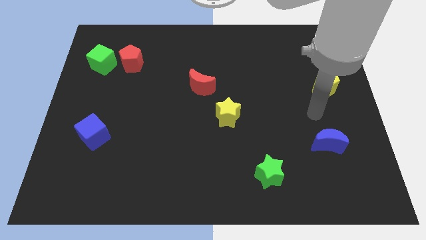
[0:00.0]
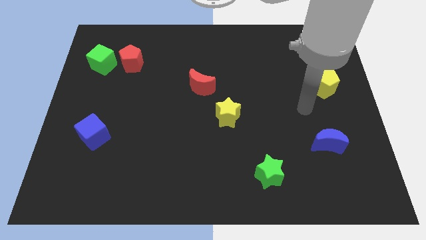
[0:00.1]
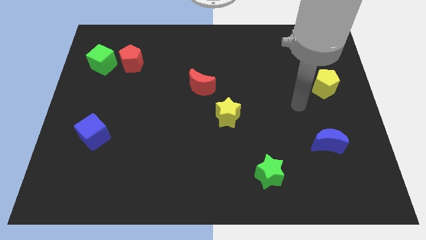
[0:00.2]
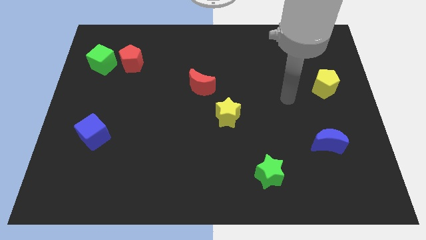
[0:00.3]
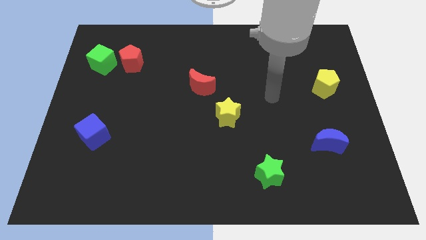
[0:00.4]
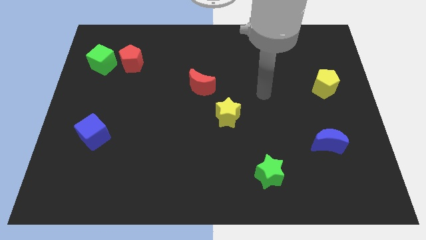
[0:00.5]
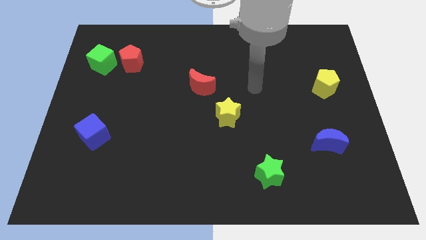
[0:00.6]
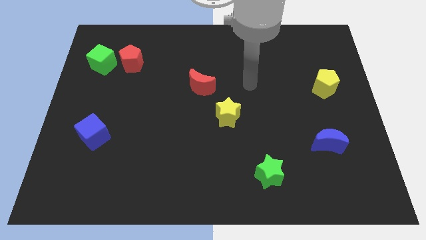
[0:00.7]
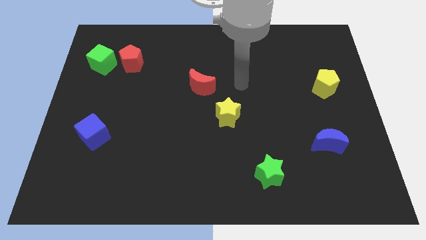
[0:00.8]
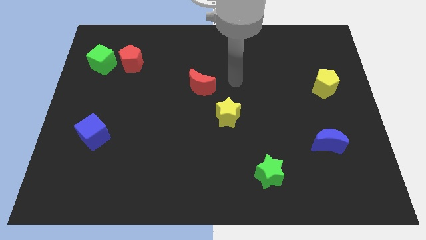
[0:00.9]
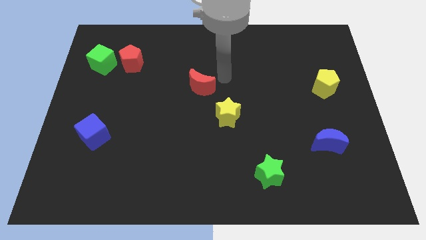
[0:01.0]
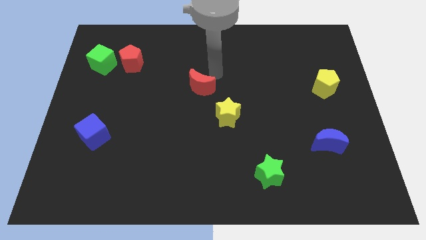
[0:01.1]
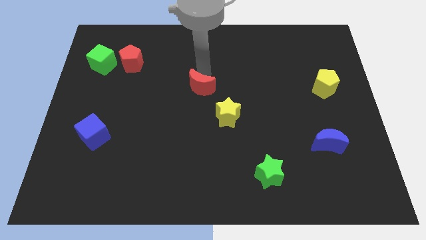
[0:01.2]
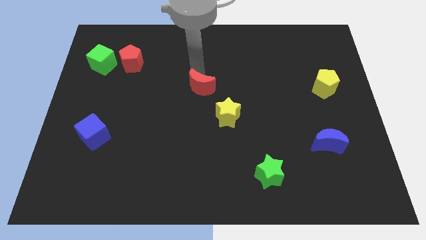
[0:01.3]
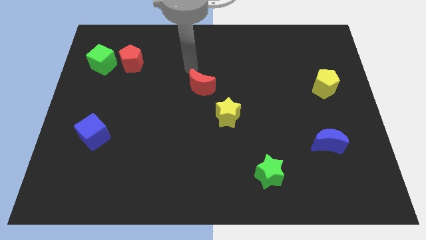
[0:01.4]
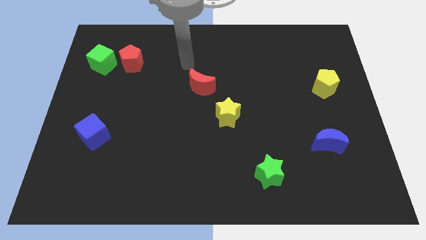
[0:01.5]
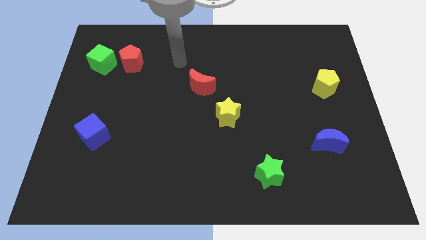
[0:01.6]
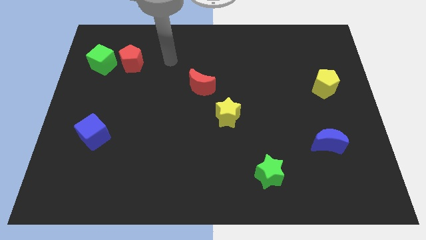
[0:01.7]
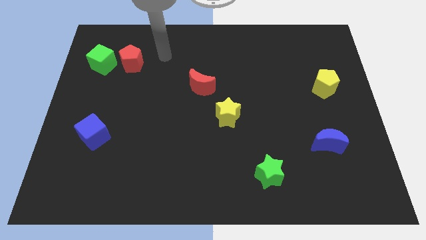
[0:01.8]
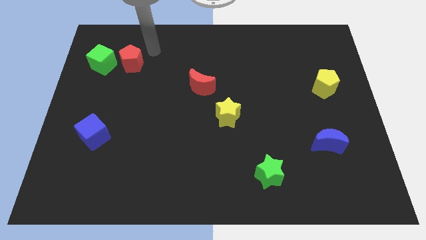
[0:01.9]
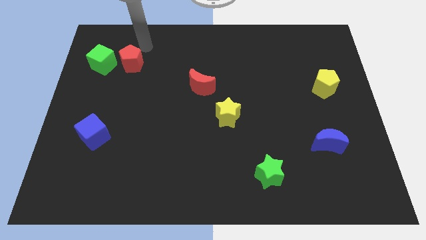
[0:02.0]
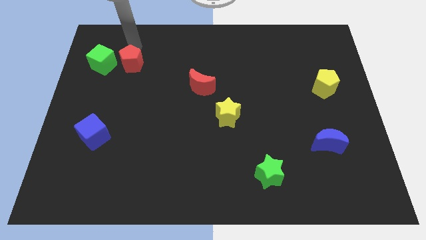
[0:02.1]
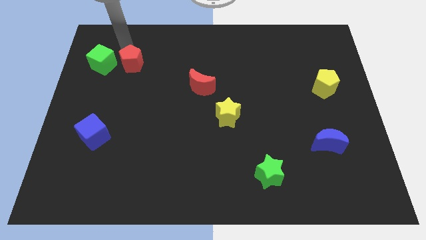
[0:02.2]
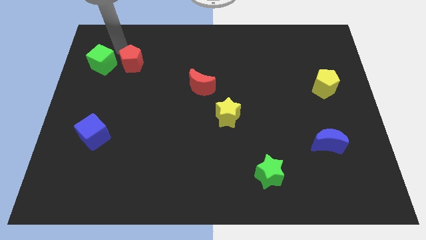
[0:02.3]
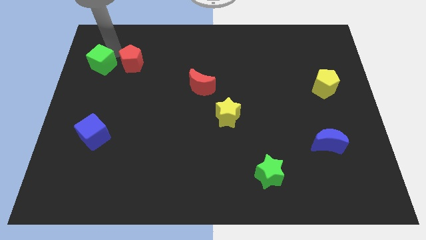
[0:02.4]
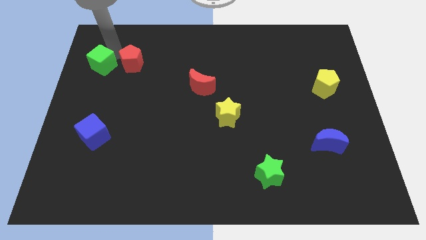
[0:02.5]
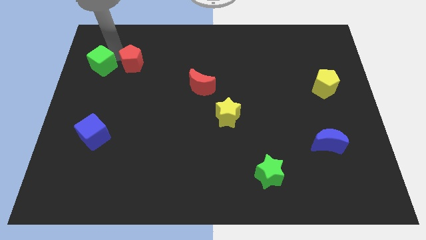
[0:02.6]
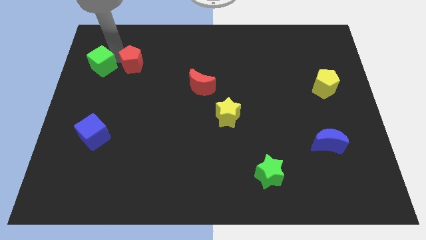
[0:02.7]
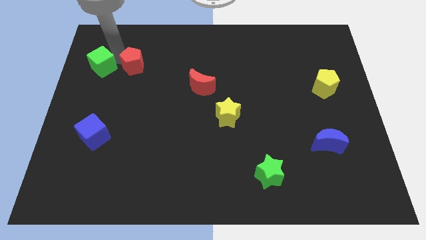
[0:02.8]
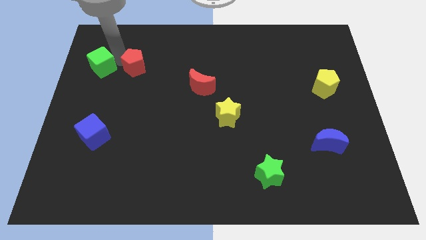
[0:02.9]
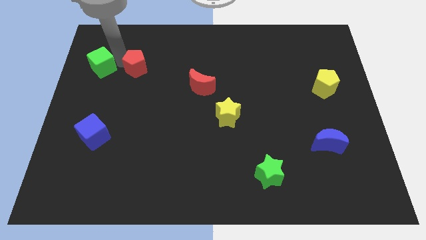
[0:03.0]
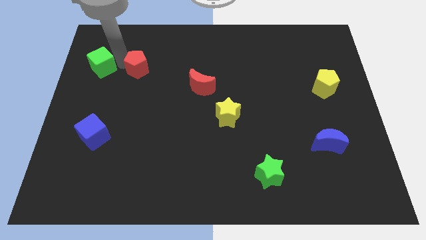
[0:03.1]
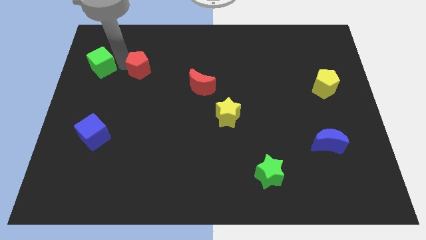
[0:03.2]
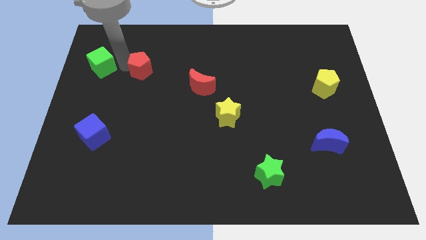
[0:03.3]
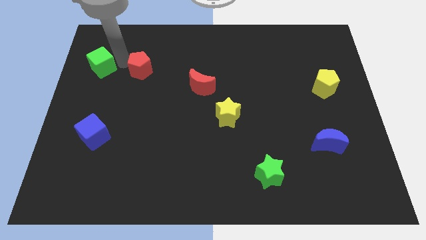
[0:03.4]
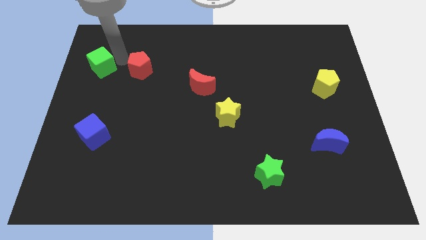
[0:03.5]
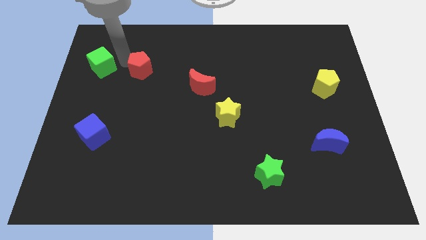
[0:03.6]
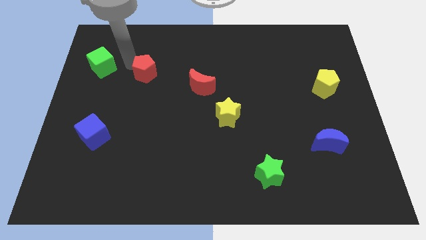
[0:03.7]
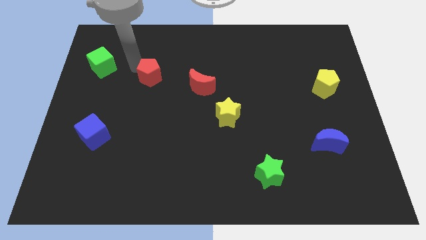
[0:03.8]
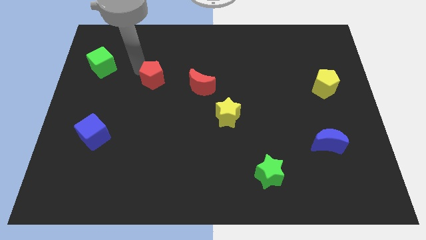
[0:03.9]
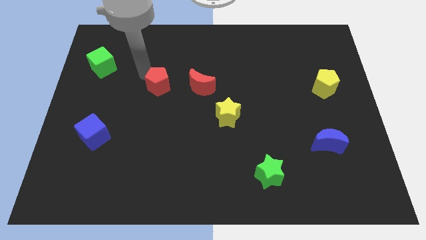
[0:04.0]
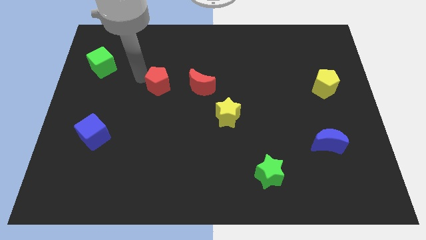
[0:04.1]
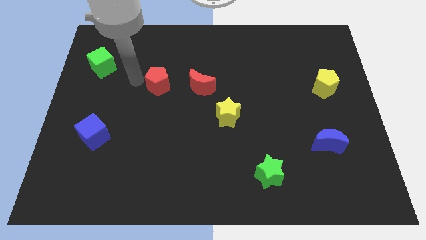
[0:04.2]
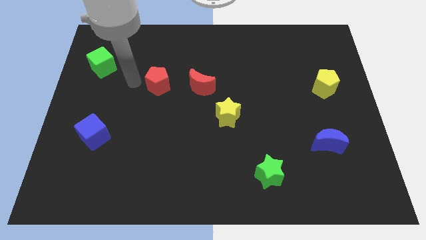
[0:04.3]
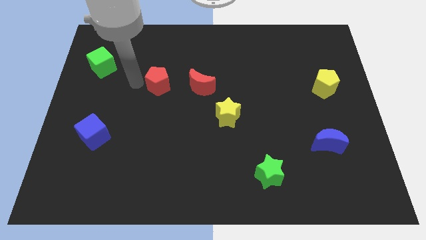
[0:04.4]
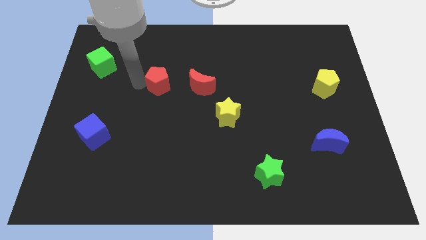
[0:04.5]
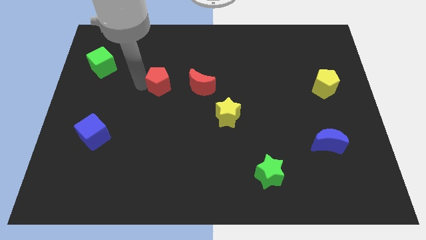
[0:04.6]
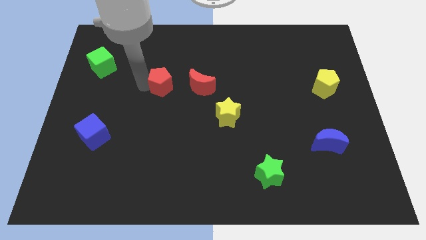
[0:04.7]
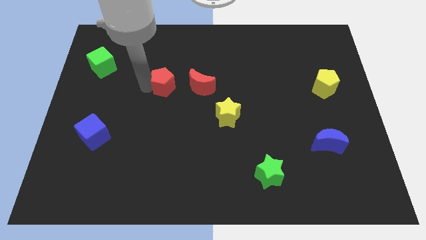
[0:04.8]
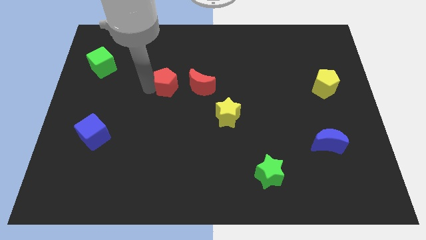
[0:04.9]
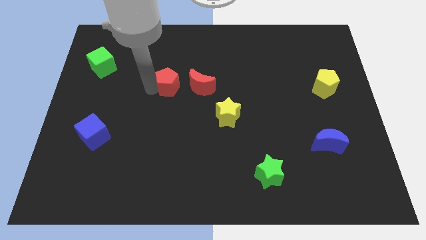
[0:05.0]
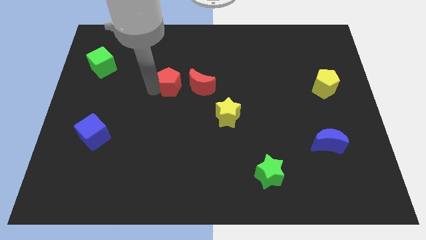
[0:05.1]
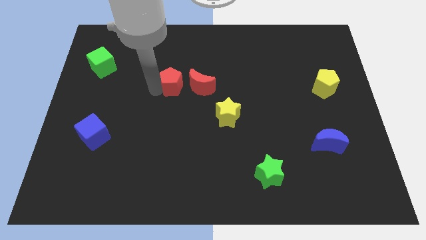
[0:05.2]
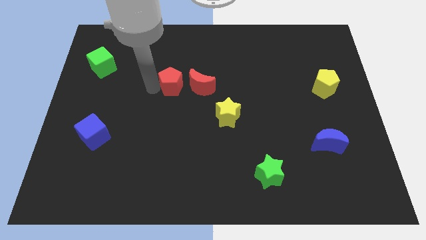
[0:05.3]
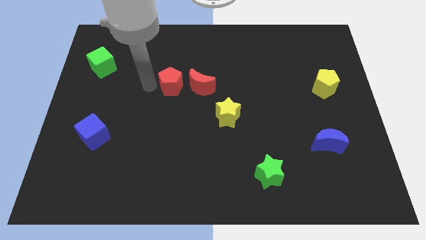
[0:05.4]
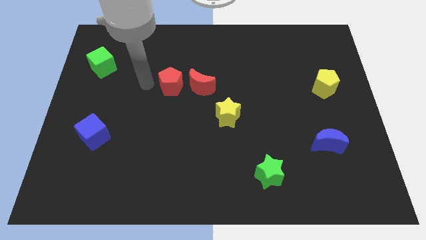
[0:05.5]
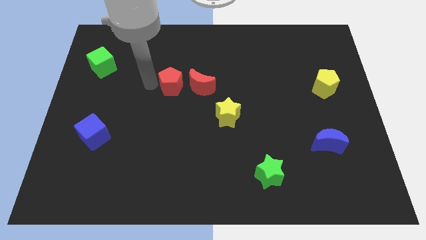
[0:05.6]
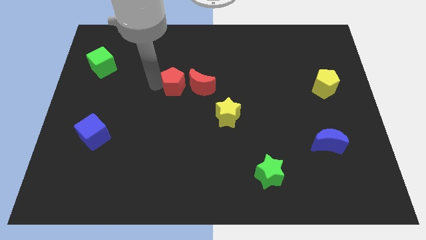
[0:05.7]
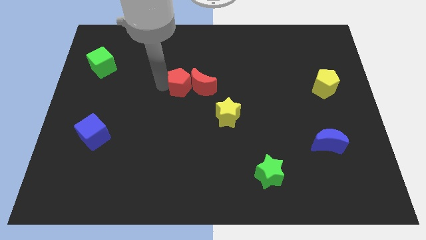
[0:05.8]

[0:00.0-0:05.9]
push the red pentagon next to the red moon

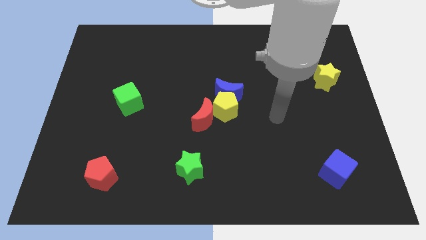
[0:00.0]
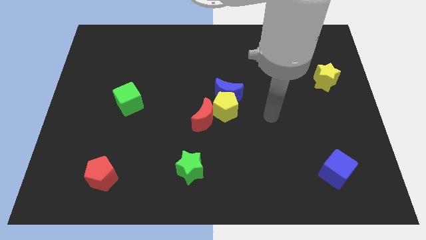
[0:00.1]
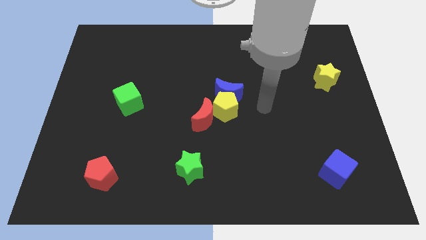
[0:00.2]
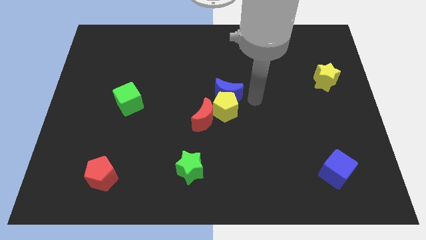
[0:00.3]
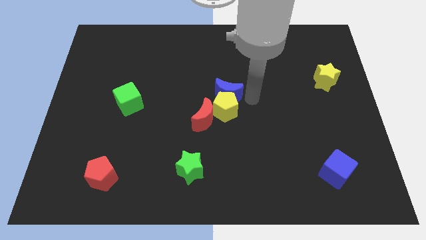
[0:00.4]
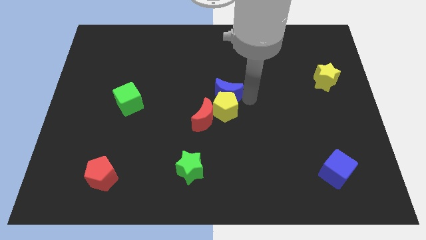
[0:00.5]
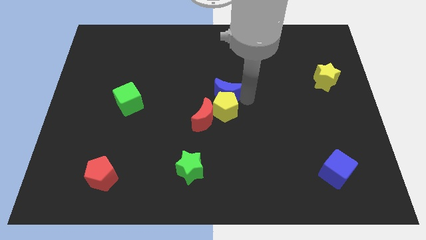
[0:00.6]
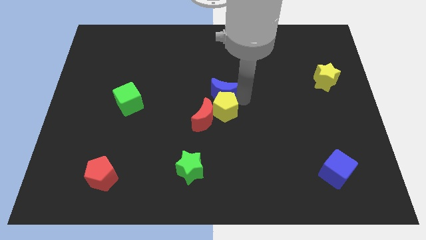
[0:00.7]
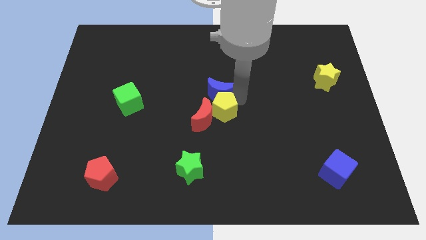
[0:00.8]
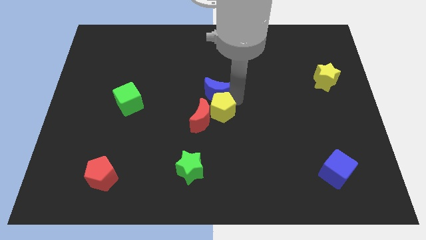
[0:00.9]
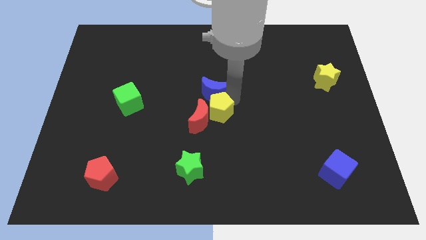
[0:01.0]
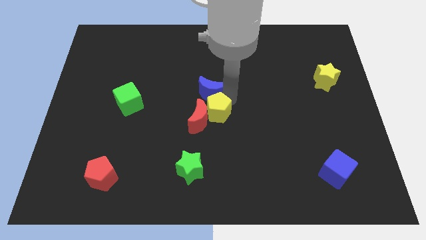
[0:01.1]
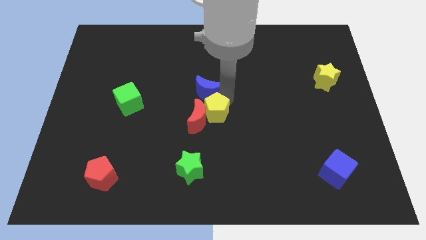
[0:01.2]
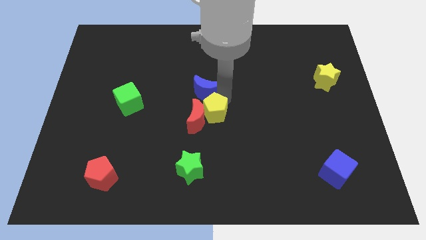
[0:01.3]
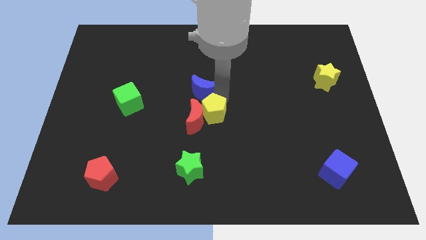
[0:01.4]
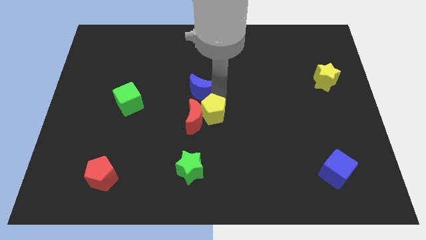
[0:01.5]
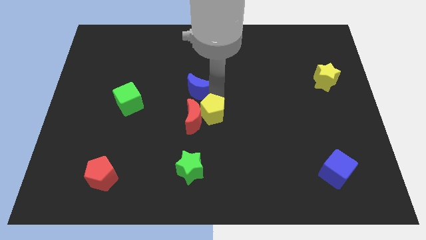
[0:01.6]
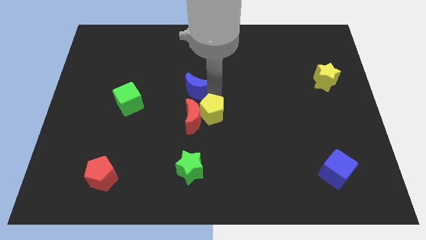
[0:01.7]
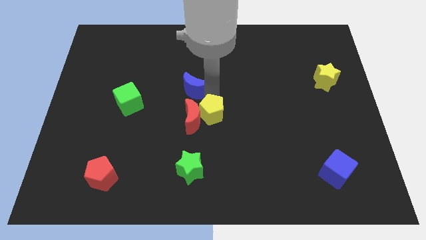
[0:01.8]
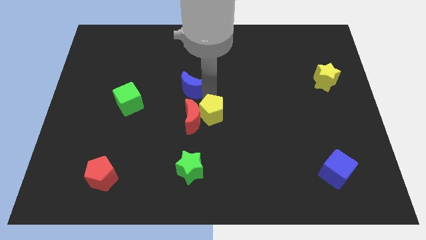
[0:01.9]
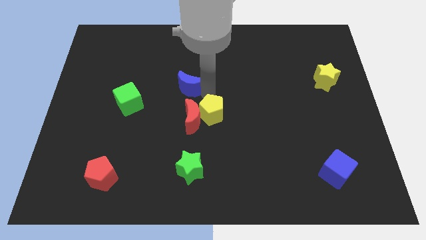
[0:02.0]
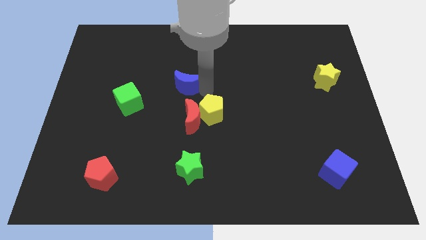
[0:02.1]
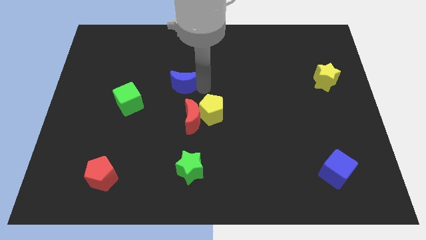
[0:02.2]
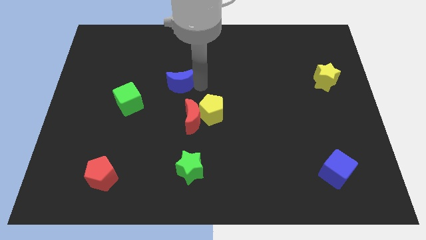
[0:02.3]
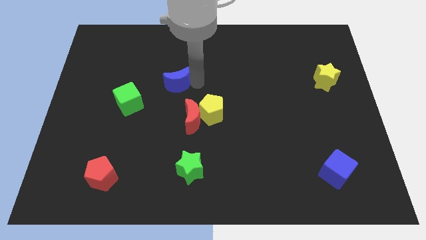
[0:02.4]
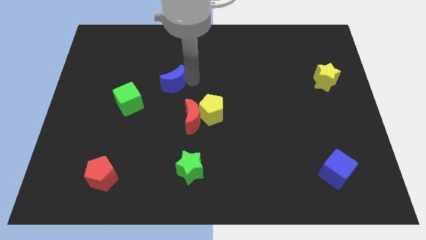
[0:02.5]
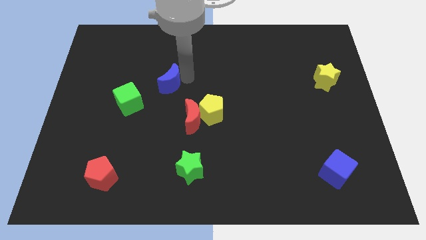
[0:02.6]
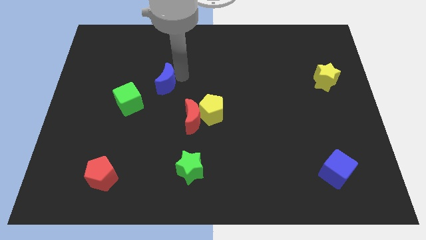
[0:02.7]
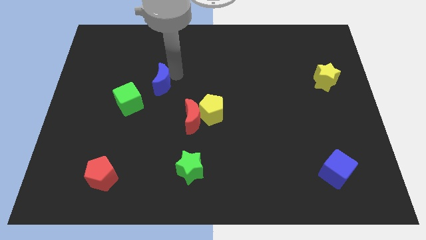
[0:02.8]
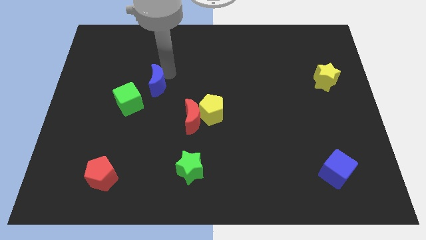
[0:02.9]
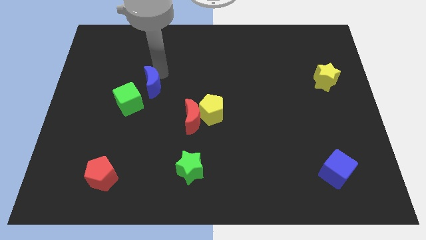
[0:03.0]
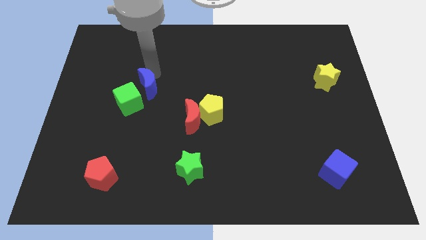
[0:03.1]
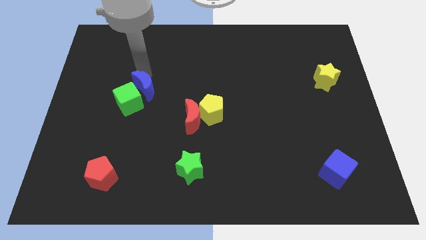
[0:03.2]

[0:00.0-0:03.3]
put the blue moon close to the green cube
